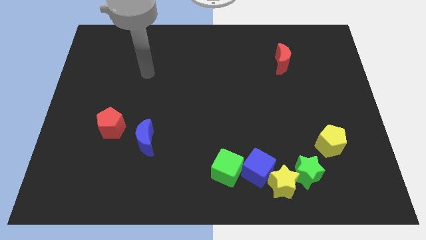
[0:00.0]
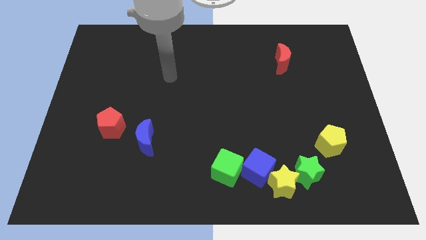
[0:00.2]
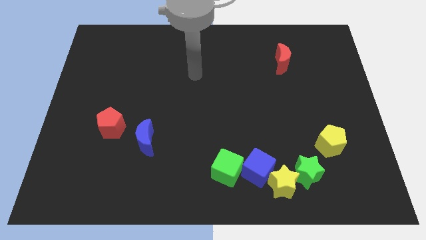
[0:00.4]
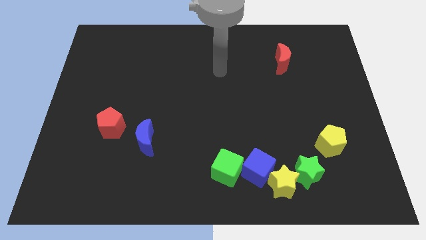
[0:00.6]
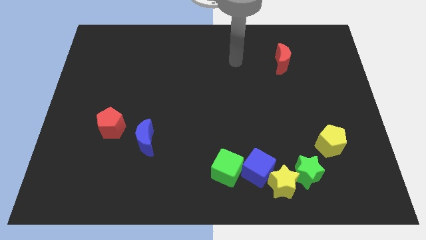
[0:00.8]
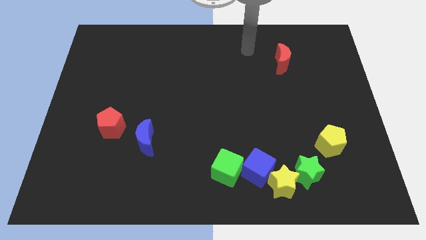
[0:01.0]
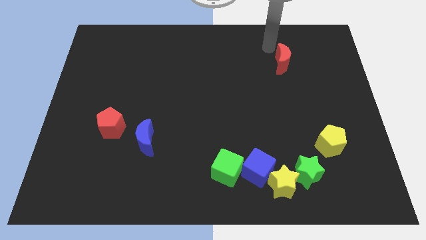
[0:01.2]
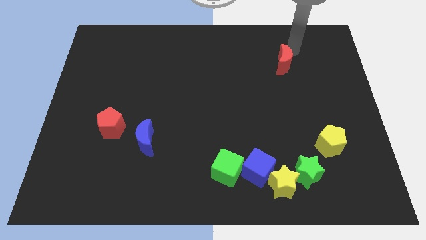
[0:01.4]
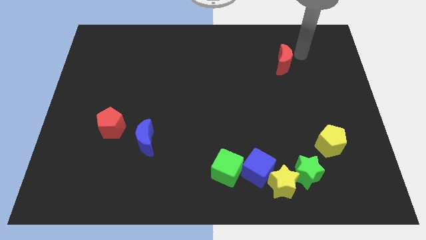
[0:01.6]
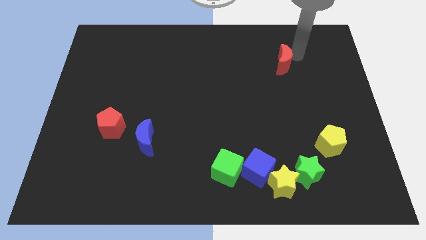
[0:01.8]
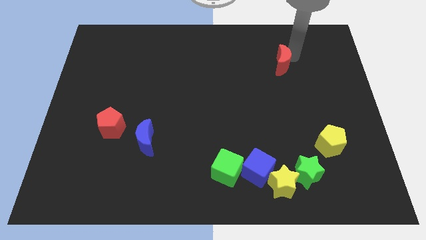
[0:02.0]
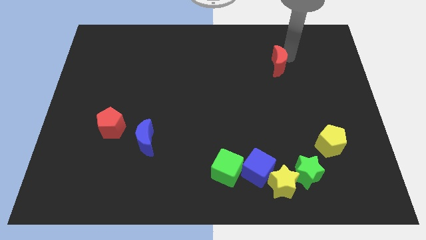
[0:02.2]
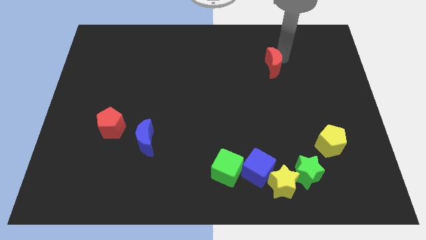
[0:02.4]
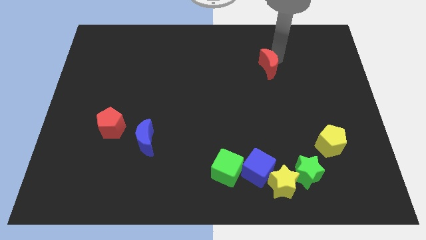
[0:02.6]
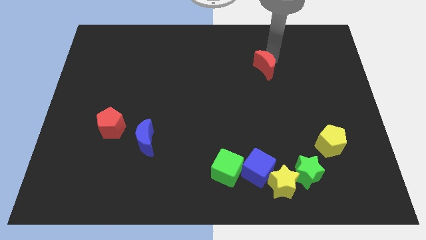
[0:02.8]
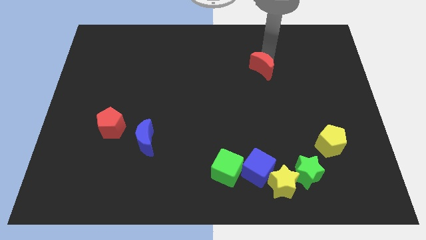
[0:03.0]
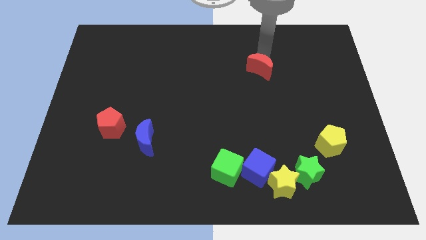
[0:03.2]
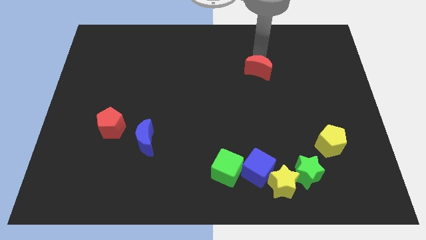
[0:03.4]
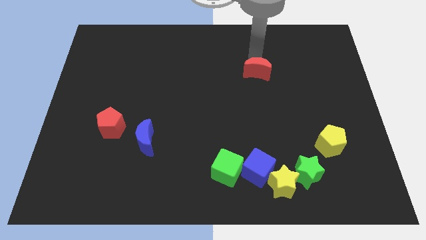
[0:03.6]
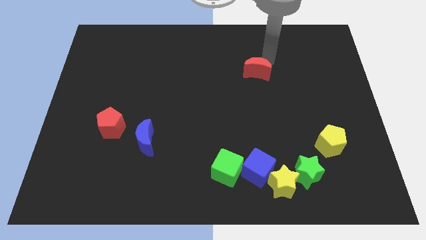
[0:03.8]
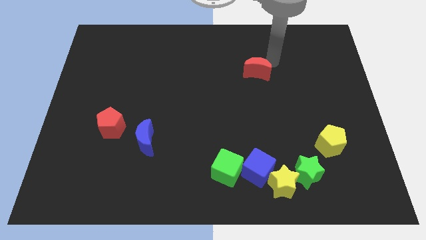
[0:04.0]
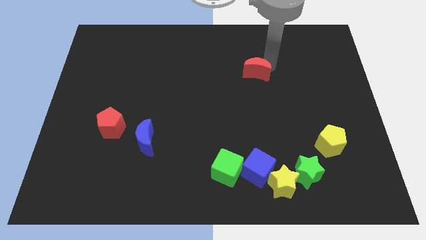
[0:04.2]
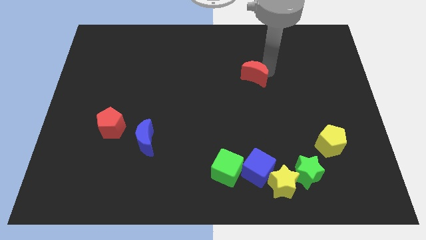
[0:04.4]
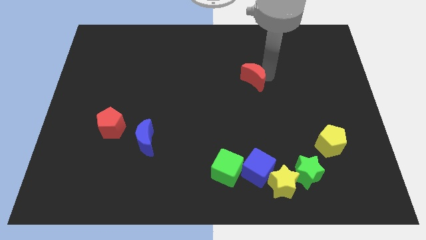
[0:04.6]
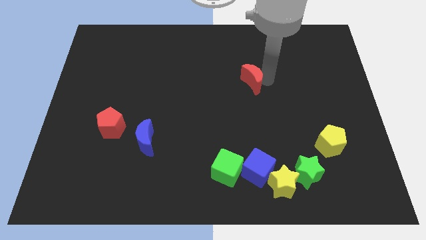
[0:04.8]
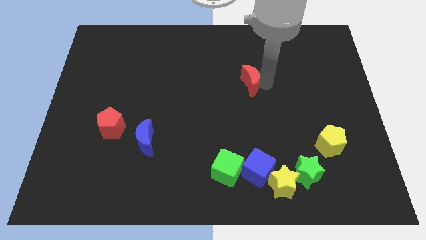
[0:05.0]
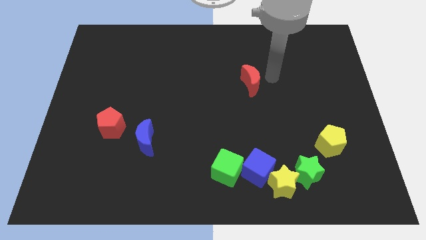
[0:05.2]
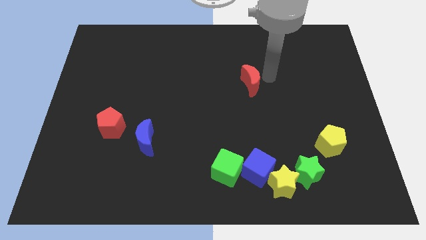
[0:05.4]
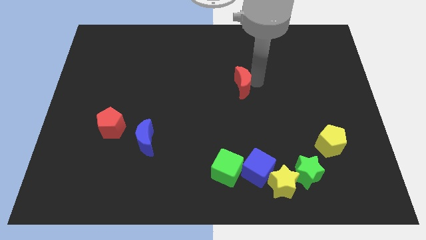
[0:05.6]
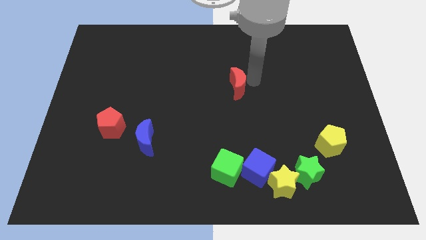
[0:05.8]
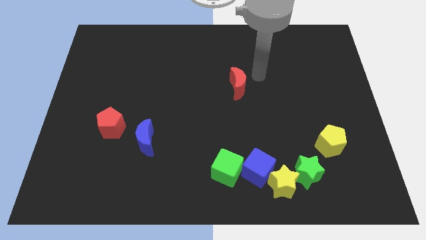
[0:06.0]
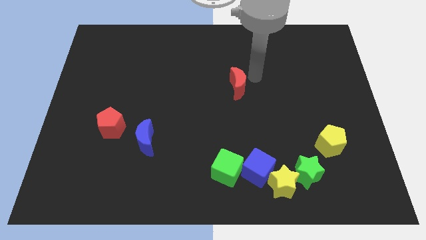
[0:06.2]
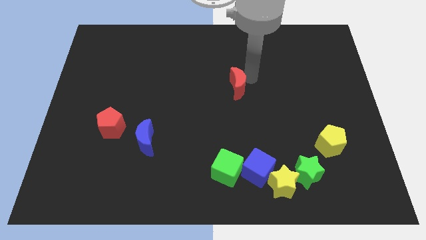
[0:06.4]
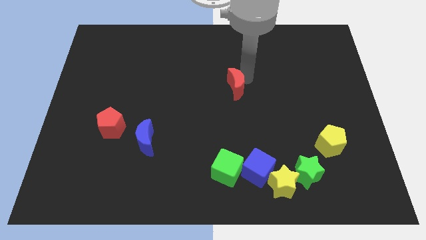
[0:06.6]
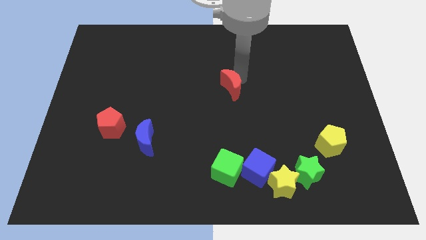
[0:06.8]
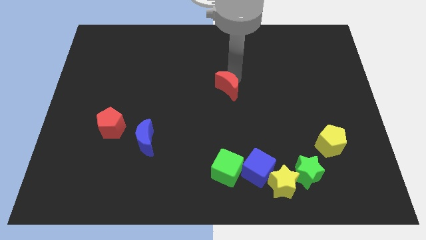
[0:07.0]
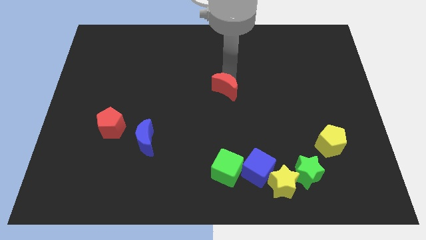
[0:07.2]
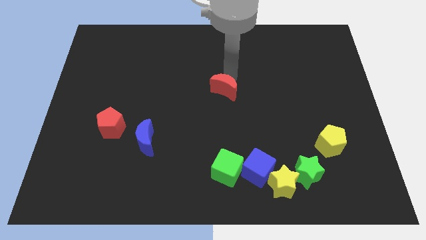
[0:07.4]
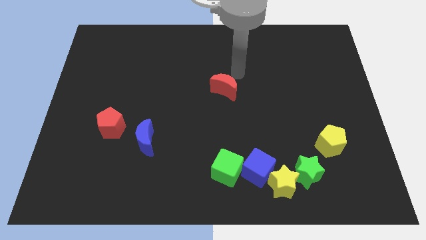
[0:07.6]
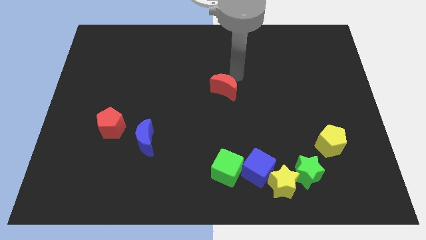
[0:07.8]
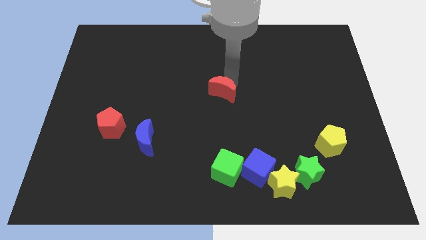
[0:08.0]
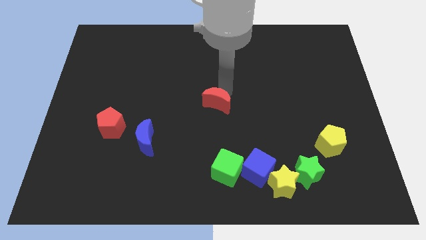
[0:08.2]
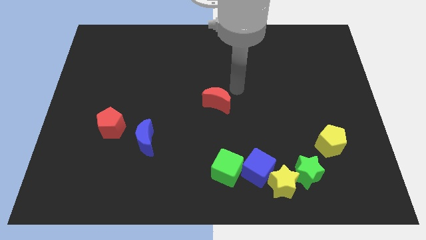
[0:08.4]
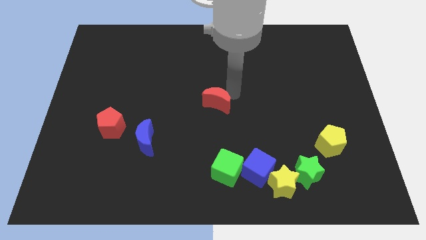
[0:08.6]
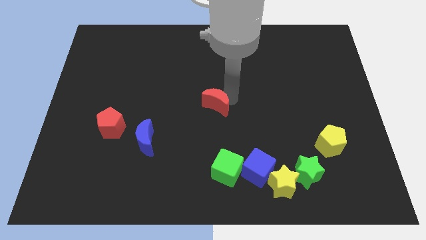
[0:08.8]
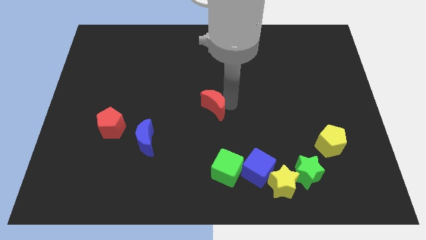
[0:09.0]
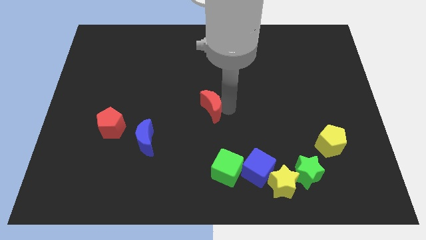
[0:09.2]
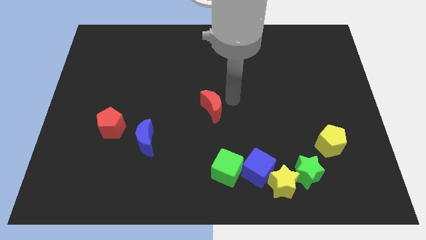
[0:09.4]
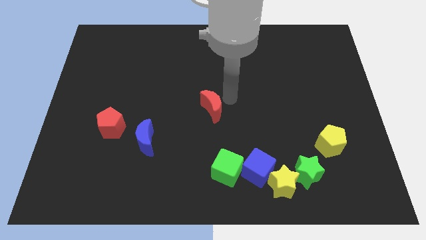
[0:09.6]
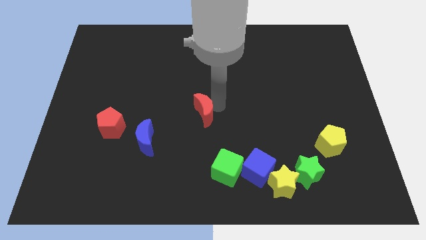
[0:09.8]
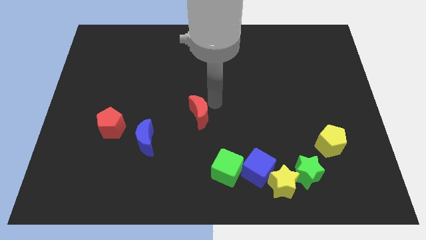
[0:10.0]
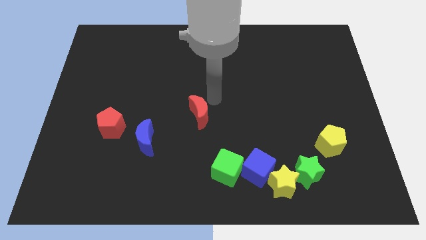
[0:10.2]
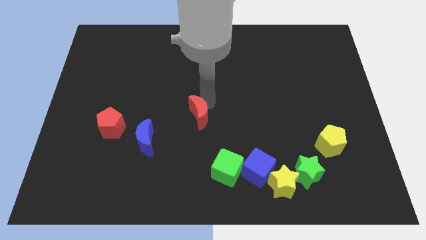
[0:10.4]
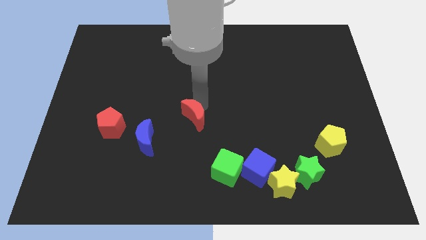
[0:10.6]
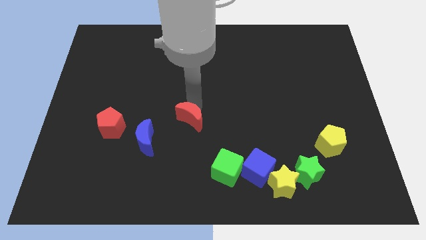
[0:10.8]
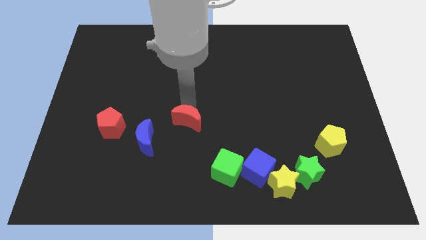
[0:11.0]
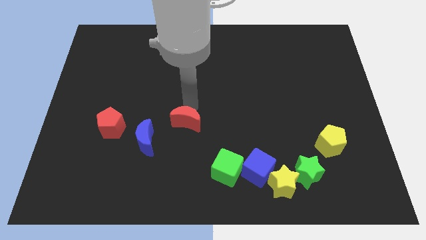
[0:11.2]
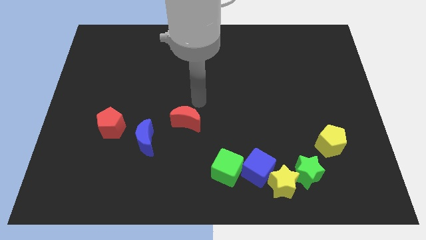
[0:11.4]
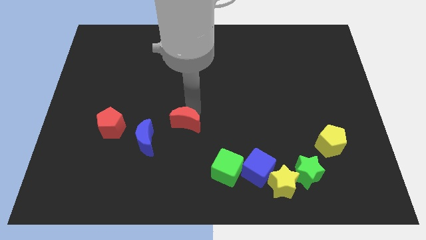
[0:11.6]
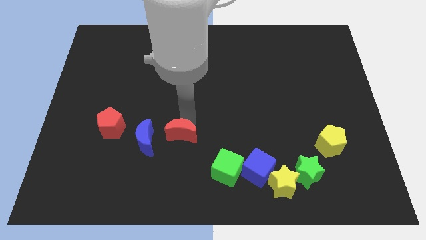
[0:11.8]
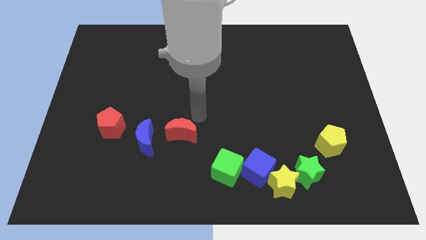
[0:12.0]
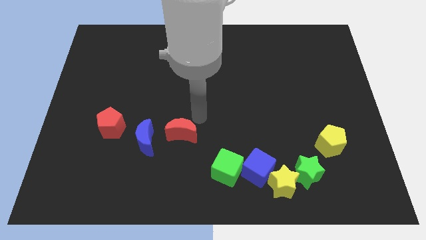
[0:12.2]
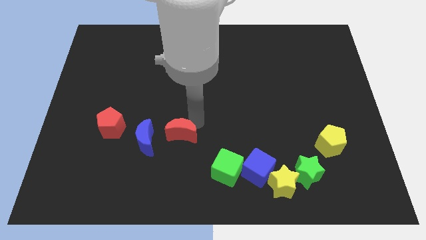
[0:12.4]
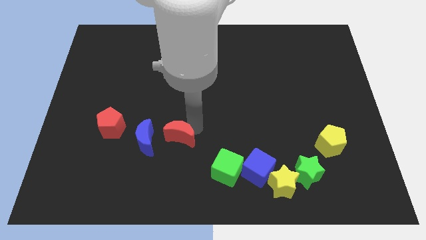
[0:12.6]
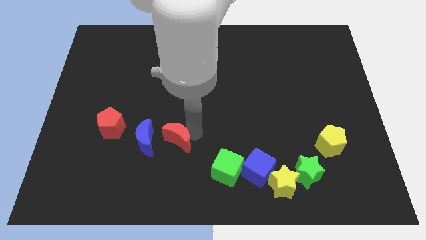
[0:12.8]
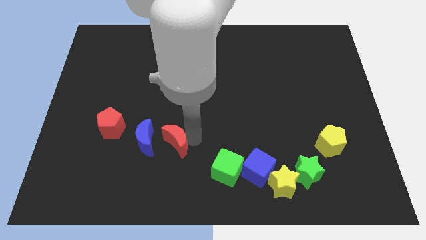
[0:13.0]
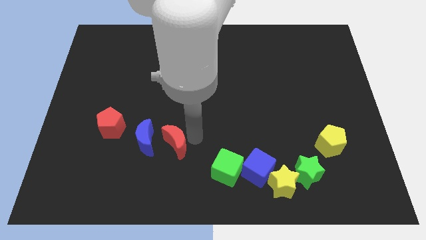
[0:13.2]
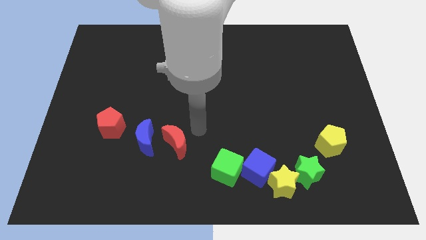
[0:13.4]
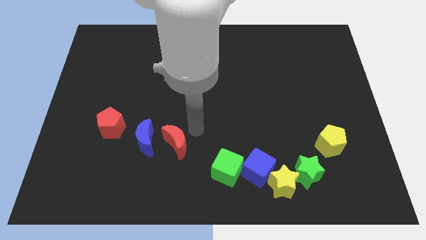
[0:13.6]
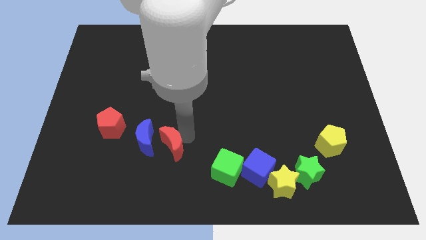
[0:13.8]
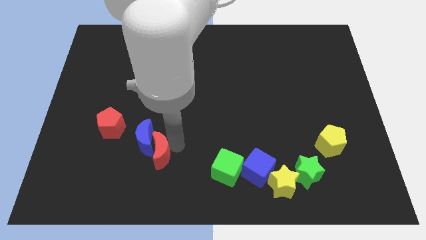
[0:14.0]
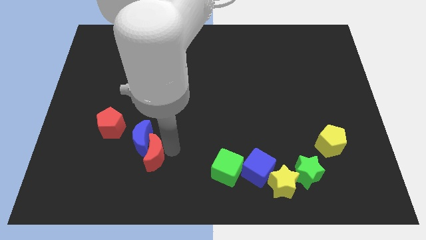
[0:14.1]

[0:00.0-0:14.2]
slide the red moon diagonally down and to the right of the red pentagon

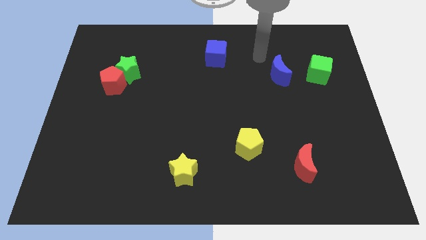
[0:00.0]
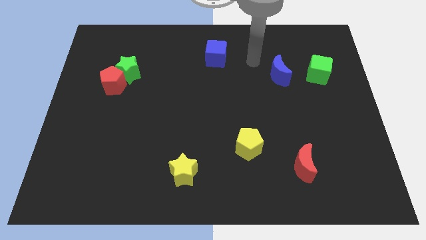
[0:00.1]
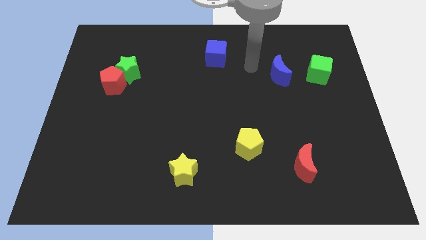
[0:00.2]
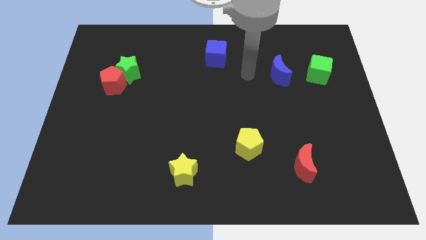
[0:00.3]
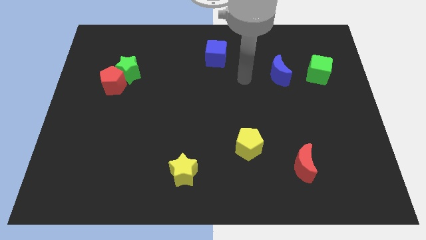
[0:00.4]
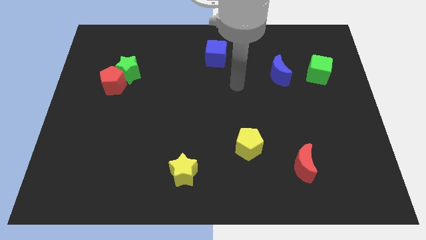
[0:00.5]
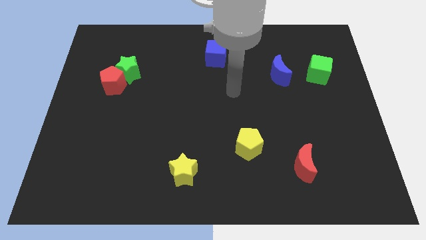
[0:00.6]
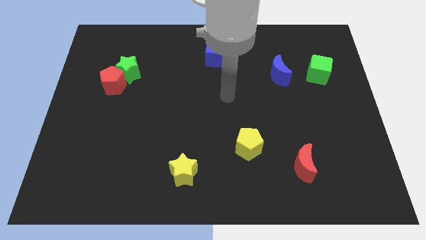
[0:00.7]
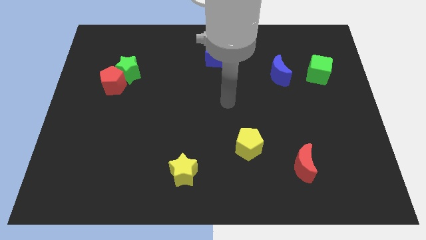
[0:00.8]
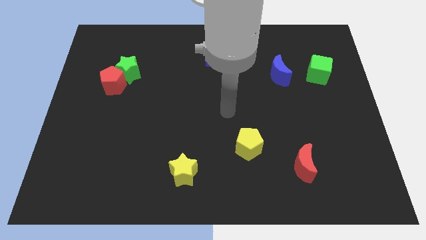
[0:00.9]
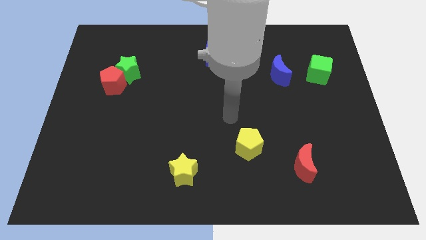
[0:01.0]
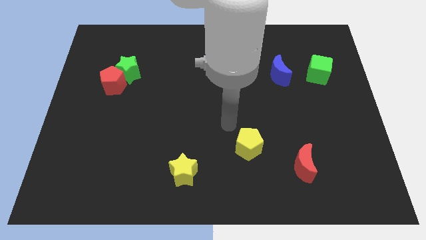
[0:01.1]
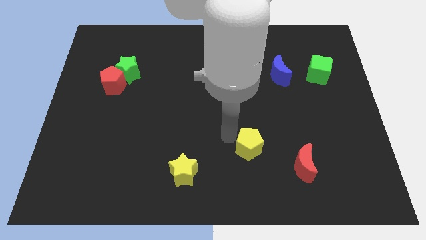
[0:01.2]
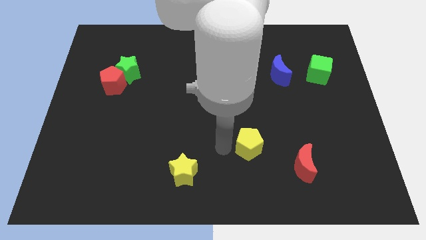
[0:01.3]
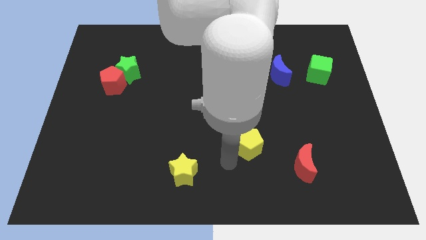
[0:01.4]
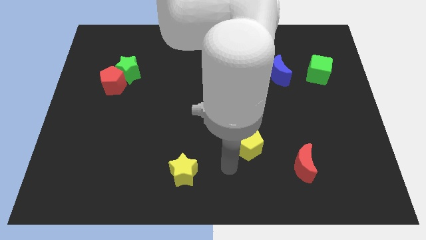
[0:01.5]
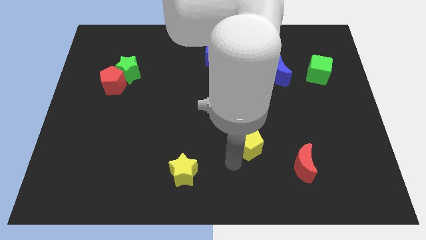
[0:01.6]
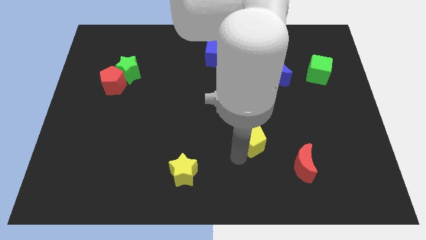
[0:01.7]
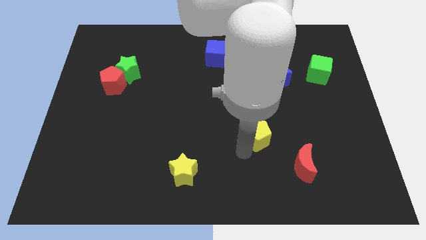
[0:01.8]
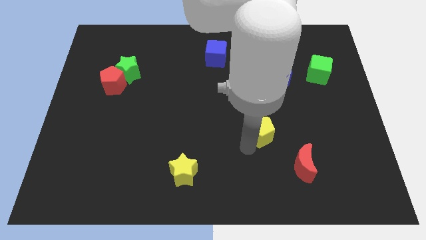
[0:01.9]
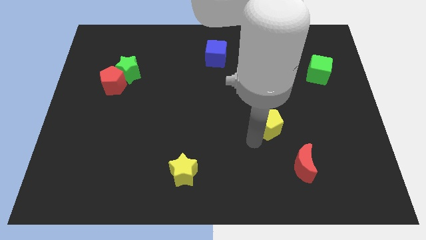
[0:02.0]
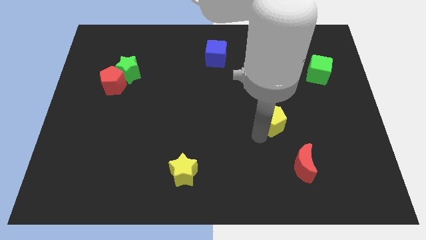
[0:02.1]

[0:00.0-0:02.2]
put the yellow pentagon to the bottom side of the blue moon
